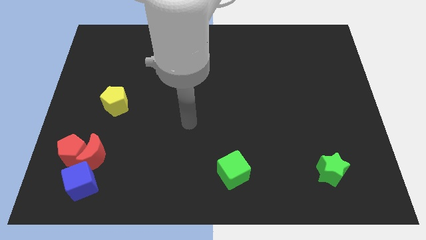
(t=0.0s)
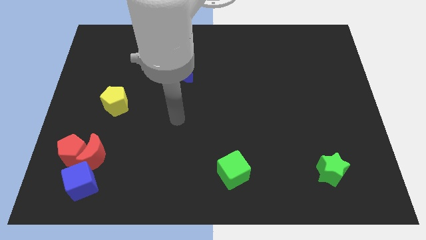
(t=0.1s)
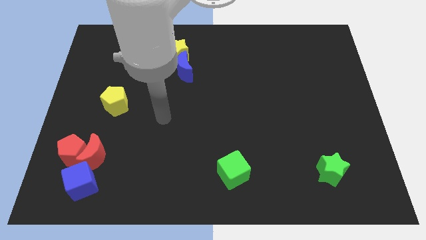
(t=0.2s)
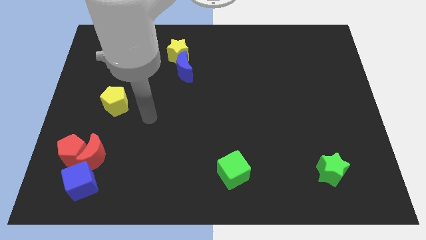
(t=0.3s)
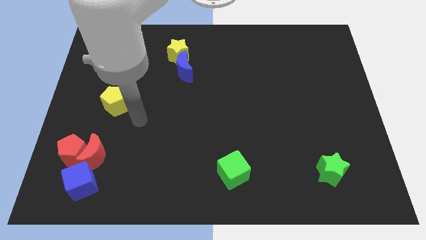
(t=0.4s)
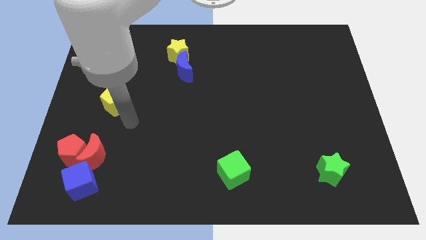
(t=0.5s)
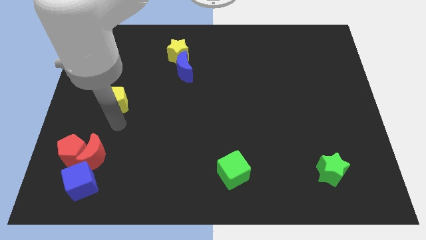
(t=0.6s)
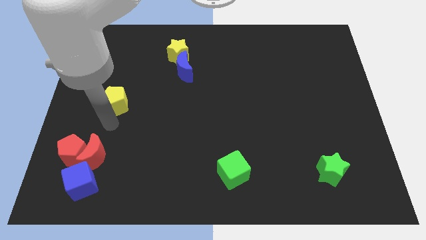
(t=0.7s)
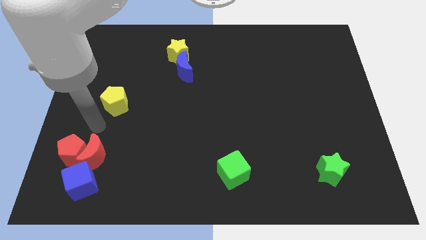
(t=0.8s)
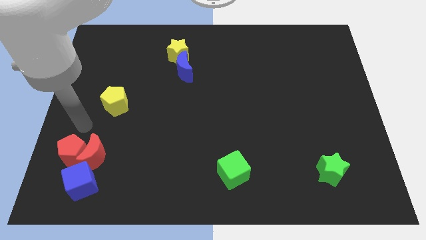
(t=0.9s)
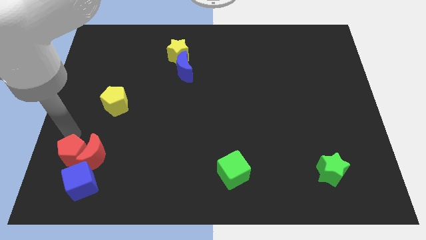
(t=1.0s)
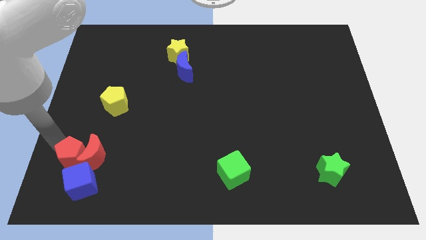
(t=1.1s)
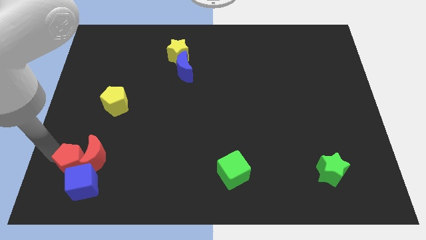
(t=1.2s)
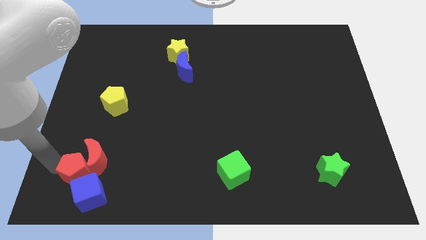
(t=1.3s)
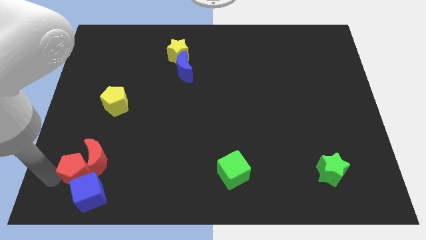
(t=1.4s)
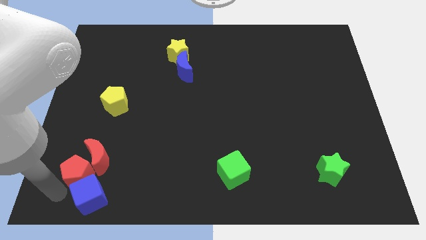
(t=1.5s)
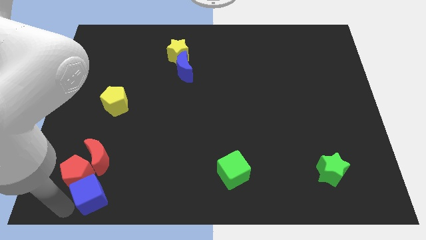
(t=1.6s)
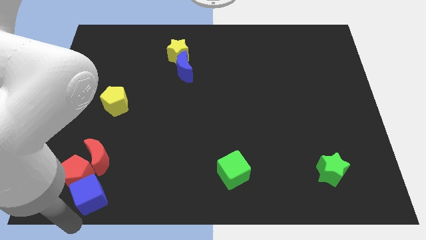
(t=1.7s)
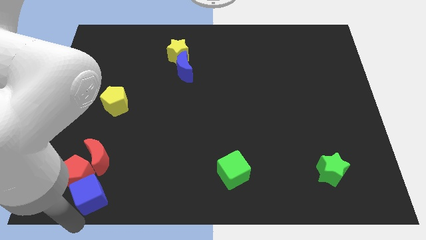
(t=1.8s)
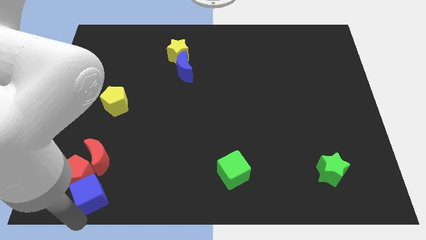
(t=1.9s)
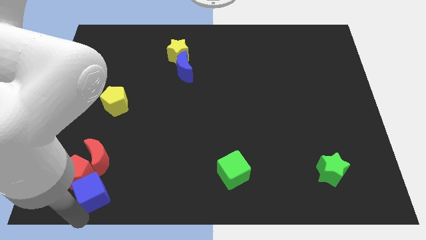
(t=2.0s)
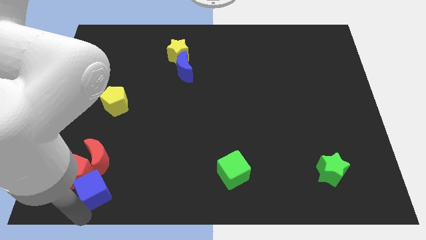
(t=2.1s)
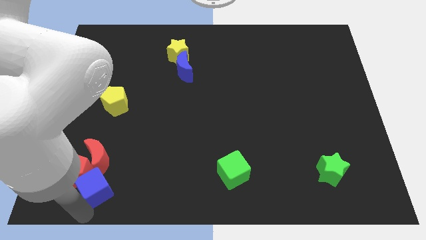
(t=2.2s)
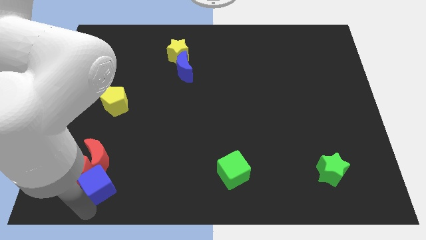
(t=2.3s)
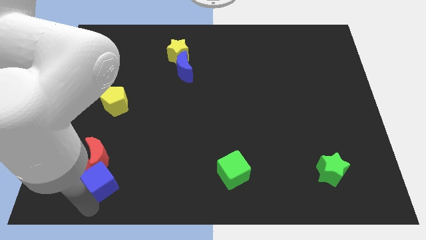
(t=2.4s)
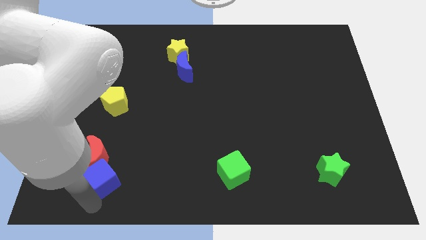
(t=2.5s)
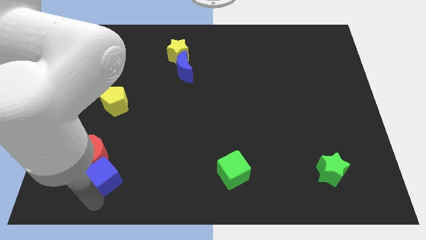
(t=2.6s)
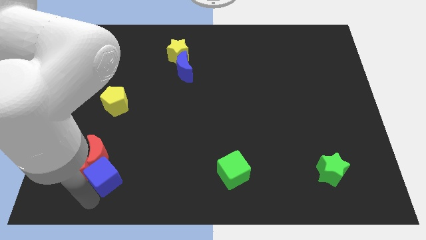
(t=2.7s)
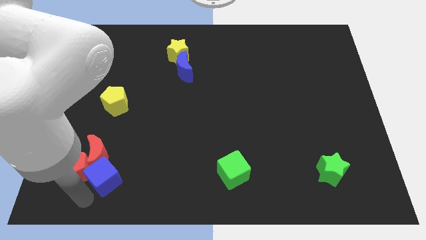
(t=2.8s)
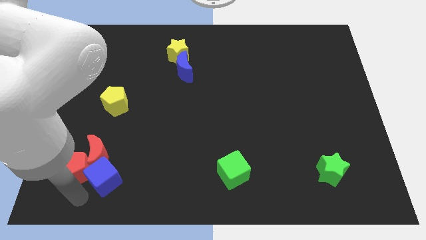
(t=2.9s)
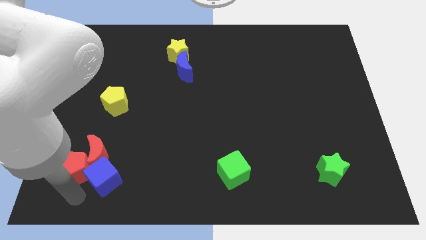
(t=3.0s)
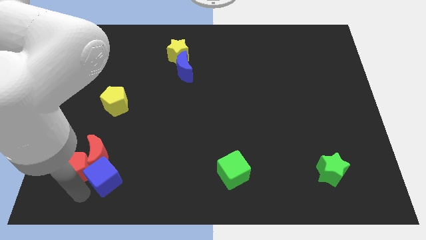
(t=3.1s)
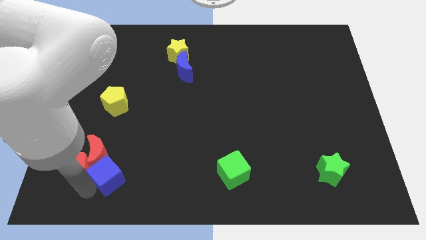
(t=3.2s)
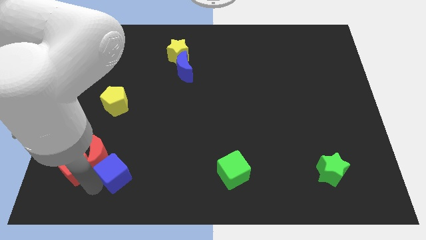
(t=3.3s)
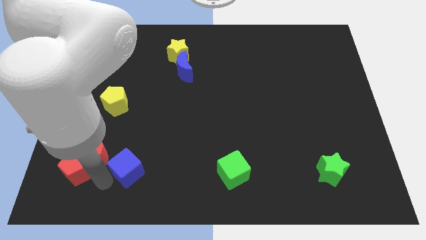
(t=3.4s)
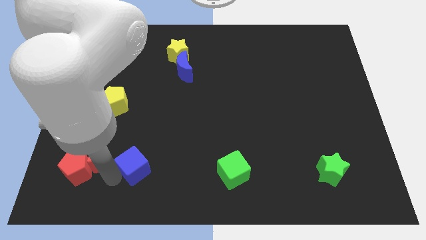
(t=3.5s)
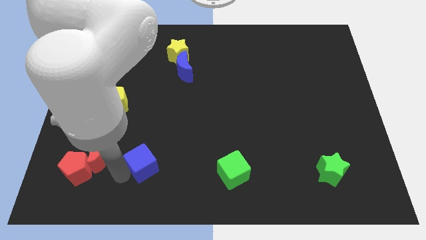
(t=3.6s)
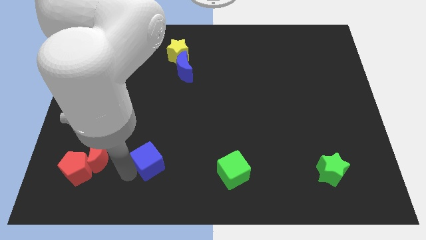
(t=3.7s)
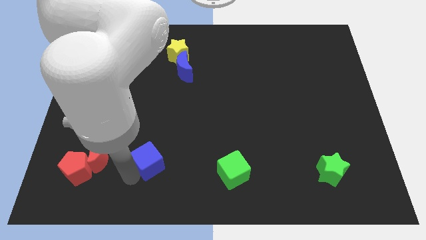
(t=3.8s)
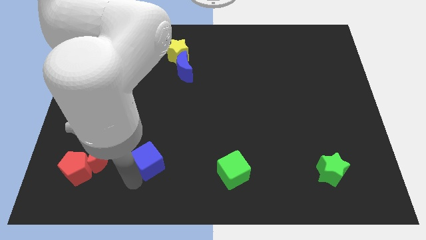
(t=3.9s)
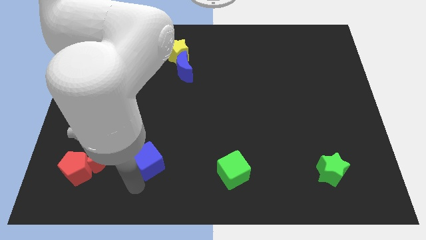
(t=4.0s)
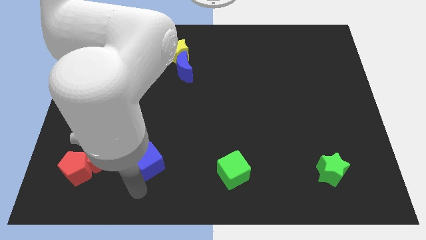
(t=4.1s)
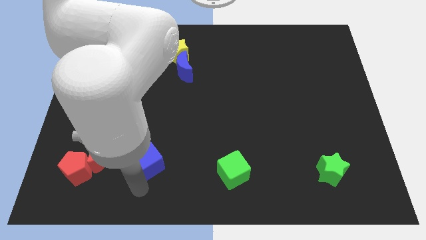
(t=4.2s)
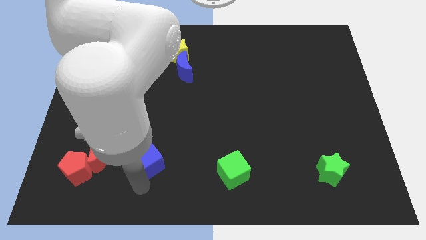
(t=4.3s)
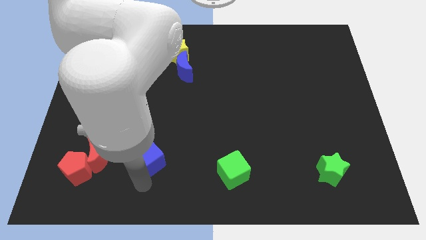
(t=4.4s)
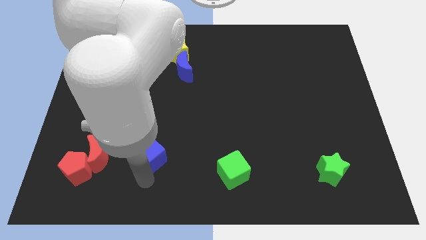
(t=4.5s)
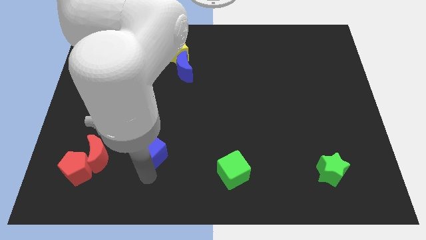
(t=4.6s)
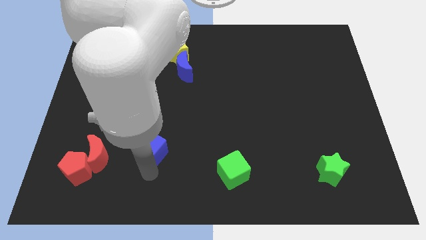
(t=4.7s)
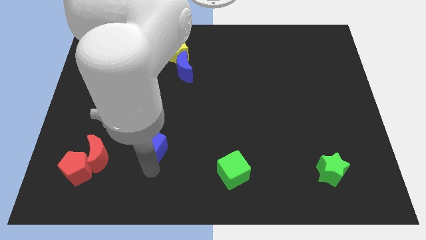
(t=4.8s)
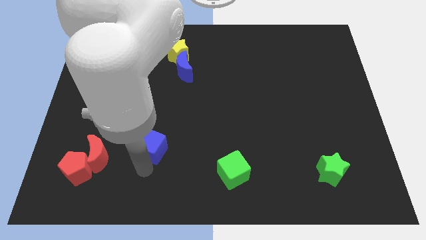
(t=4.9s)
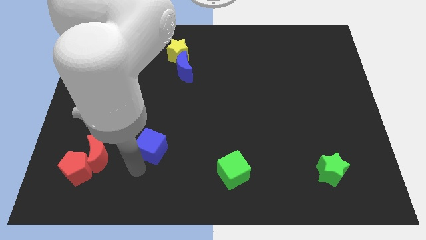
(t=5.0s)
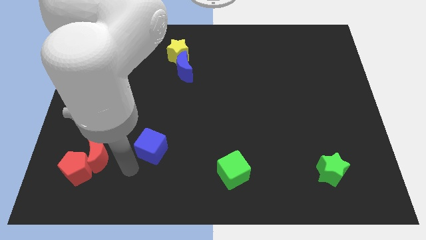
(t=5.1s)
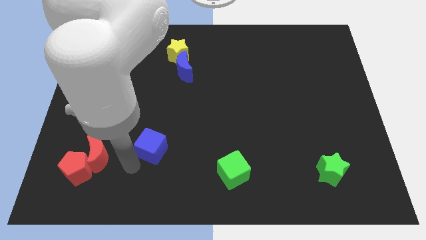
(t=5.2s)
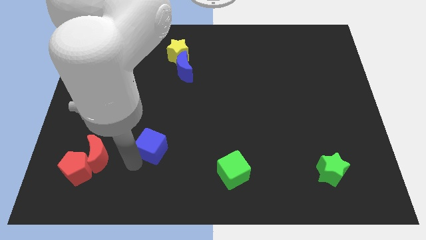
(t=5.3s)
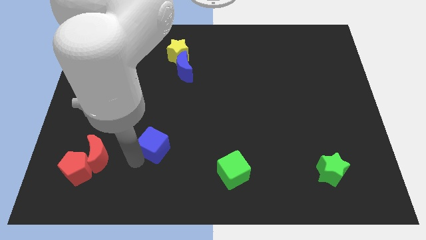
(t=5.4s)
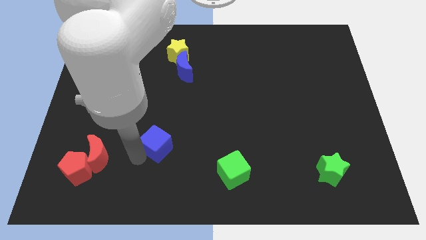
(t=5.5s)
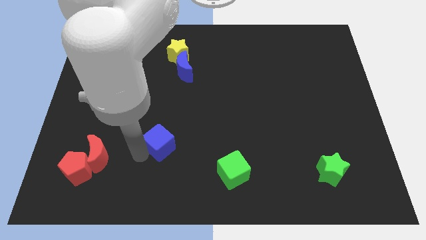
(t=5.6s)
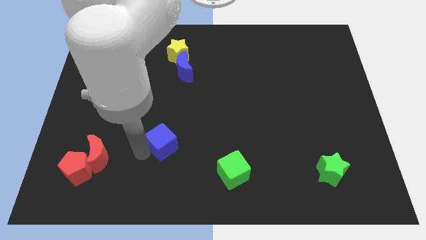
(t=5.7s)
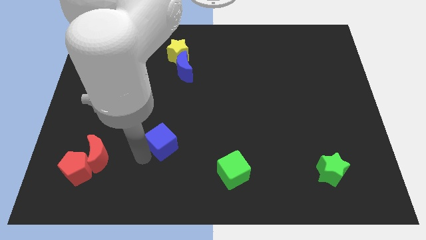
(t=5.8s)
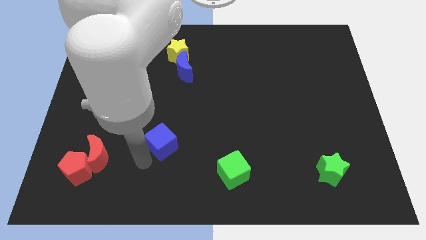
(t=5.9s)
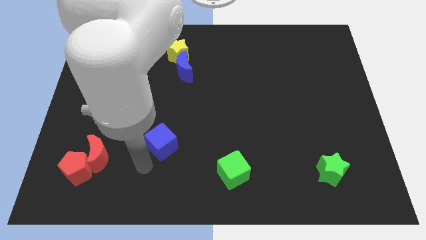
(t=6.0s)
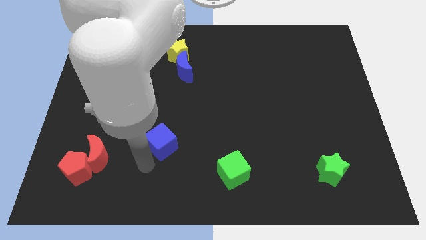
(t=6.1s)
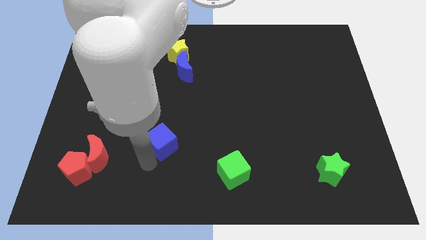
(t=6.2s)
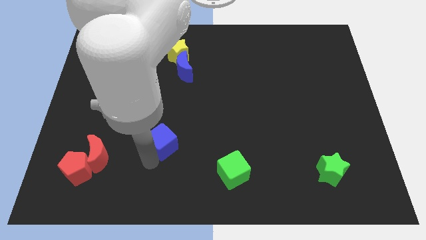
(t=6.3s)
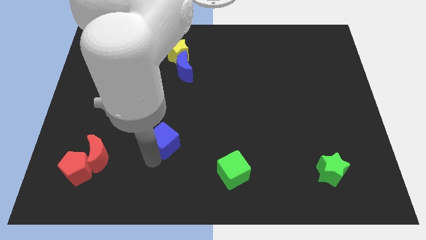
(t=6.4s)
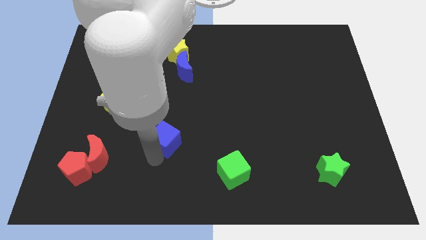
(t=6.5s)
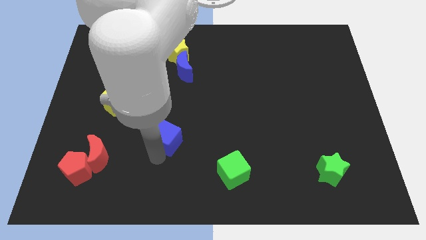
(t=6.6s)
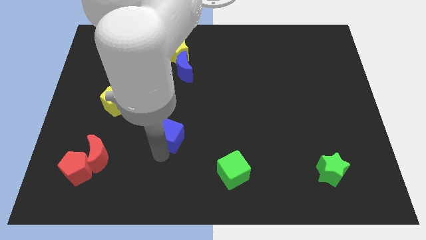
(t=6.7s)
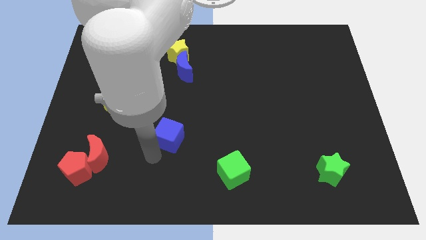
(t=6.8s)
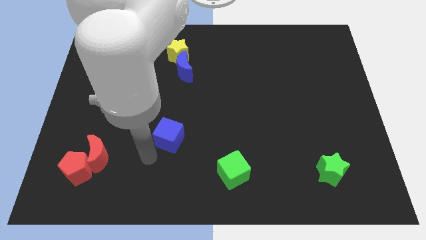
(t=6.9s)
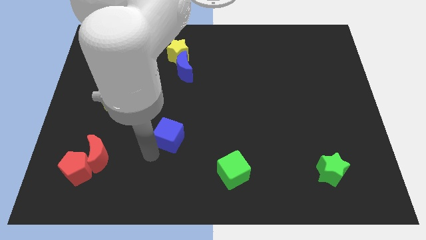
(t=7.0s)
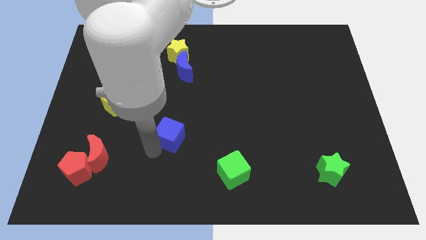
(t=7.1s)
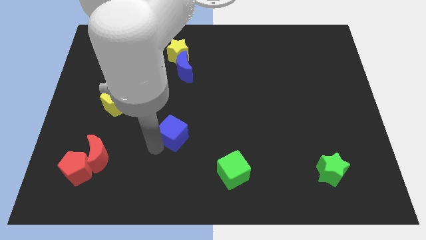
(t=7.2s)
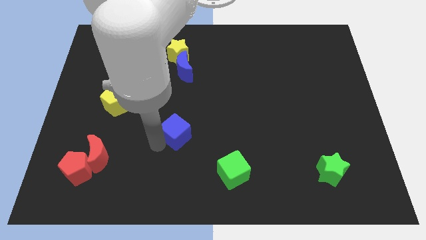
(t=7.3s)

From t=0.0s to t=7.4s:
move the blue cube to the center of the board

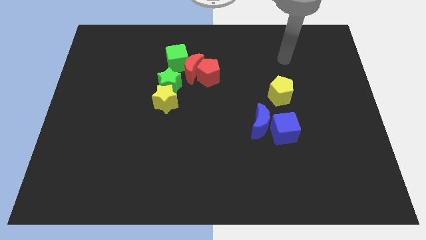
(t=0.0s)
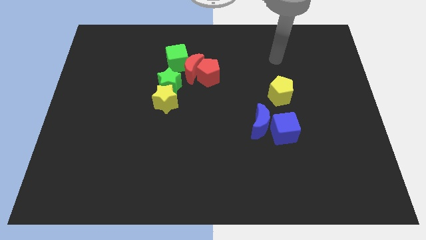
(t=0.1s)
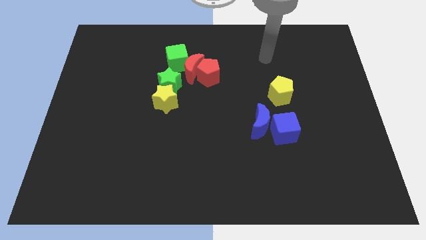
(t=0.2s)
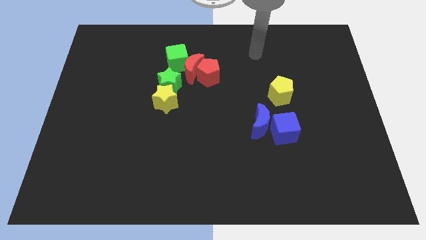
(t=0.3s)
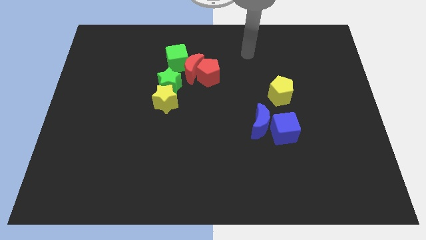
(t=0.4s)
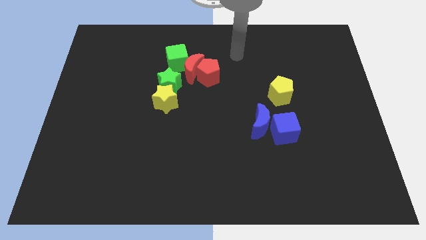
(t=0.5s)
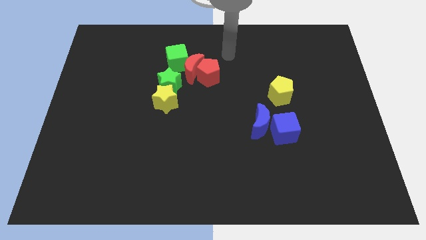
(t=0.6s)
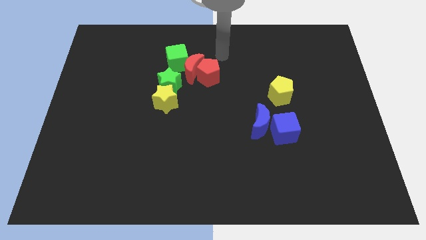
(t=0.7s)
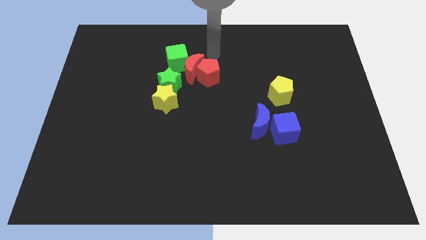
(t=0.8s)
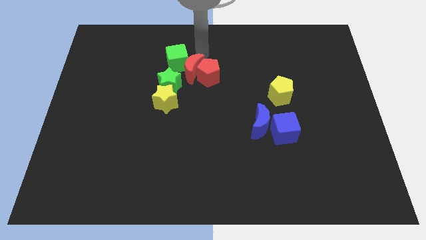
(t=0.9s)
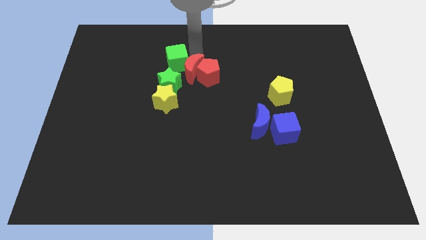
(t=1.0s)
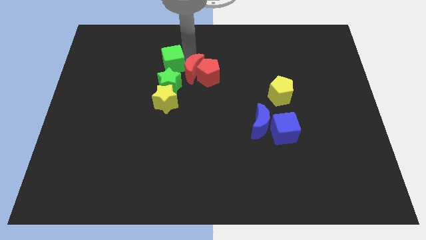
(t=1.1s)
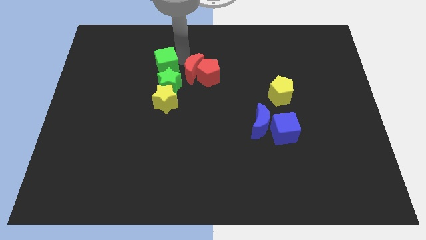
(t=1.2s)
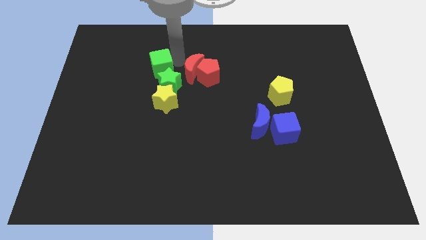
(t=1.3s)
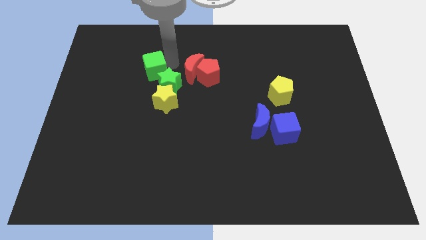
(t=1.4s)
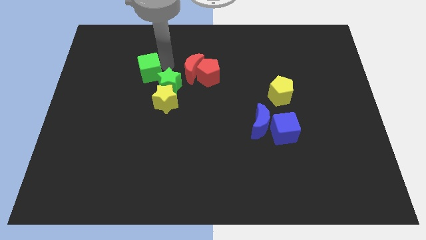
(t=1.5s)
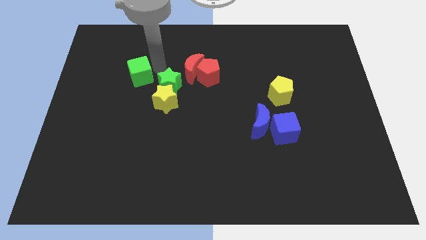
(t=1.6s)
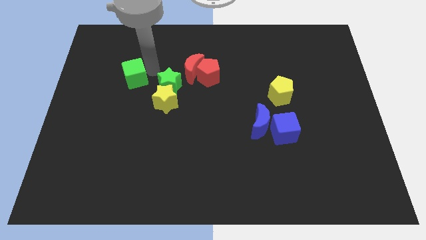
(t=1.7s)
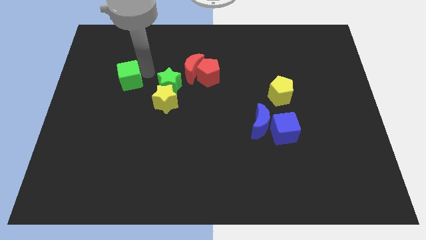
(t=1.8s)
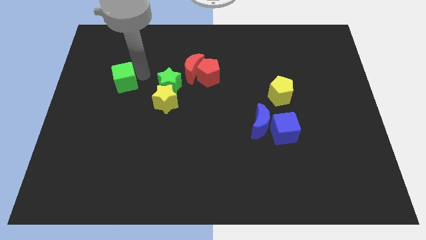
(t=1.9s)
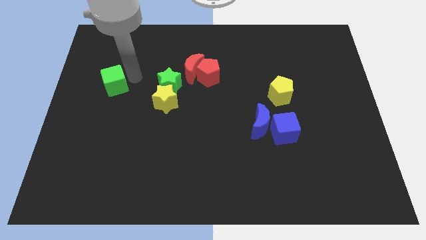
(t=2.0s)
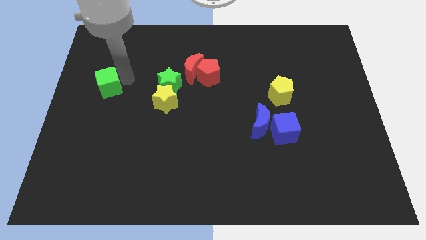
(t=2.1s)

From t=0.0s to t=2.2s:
put the green cube to the center left
